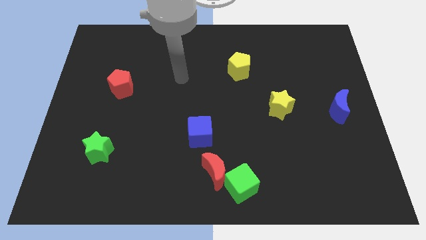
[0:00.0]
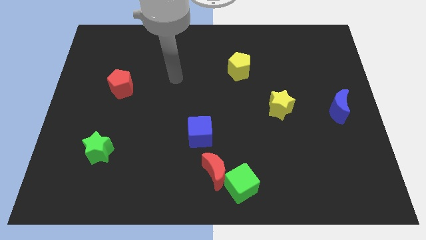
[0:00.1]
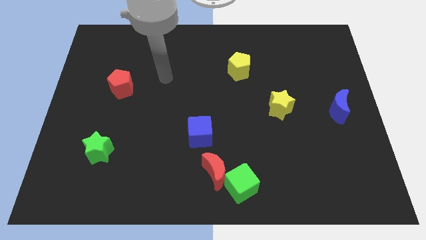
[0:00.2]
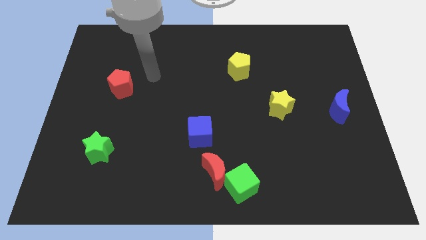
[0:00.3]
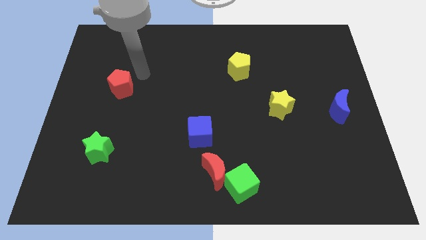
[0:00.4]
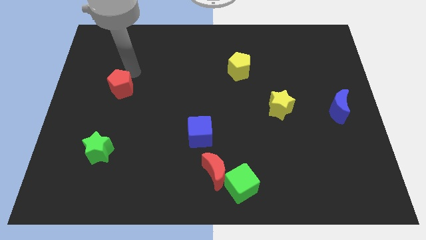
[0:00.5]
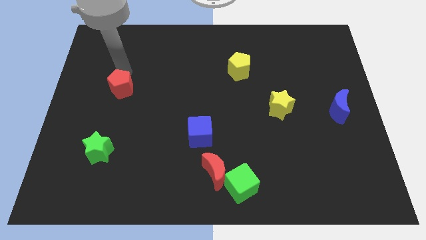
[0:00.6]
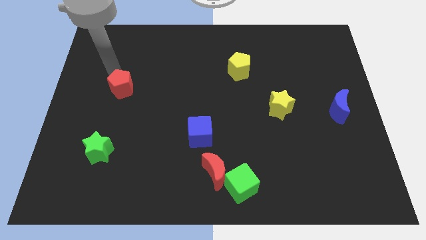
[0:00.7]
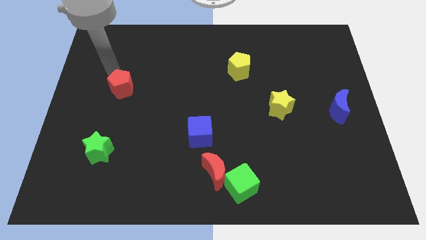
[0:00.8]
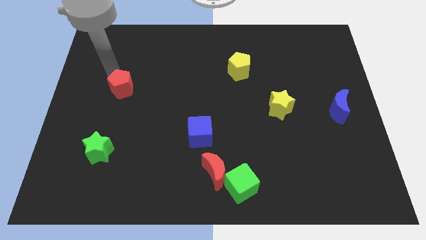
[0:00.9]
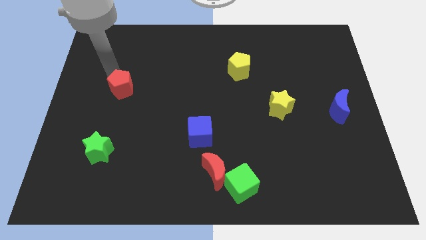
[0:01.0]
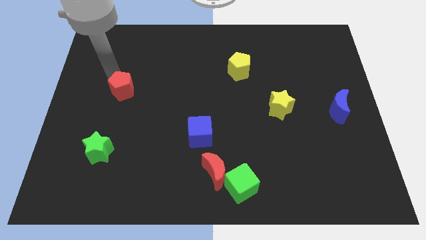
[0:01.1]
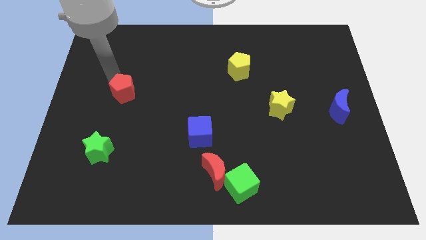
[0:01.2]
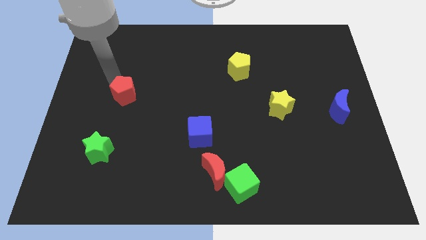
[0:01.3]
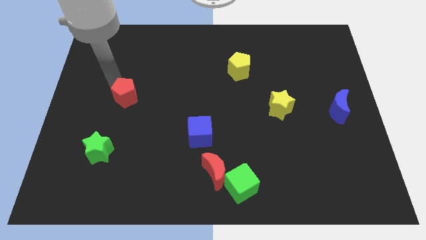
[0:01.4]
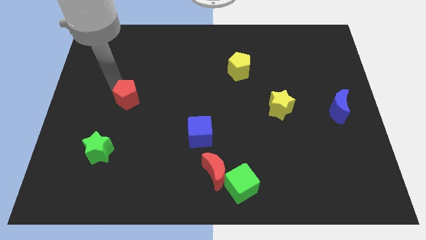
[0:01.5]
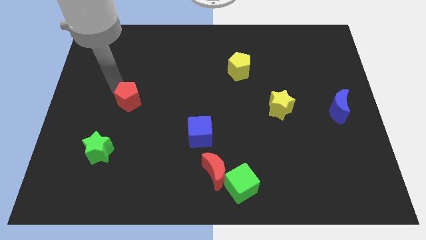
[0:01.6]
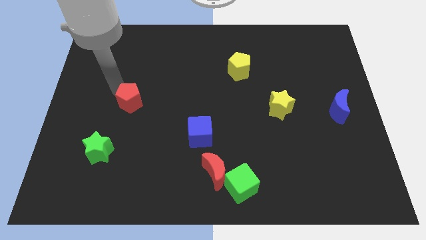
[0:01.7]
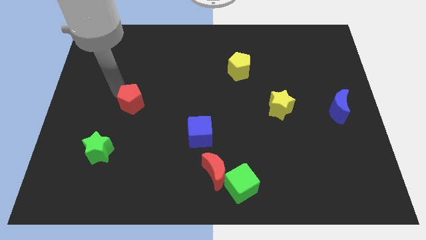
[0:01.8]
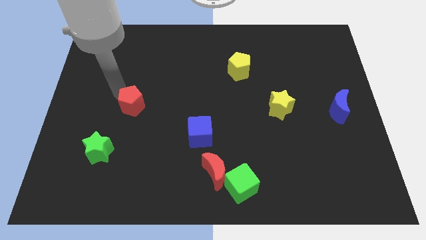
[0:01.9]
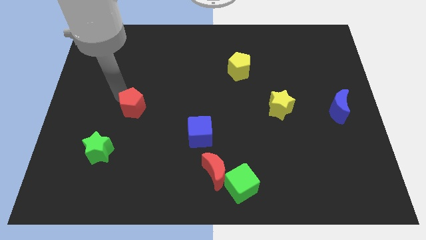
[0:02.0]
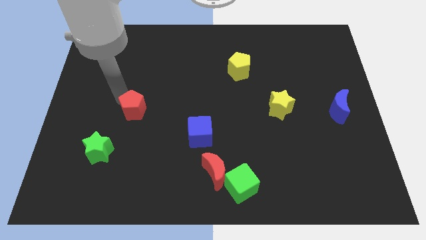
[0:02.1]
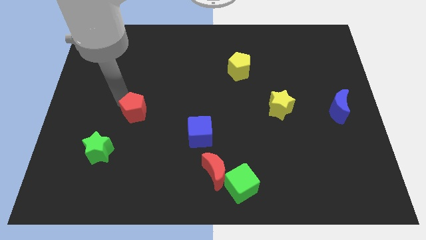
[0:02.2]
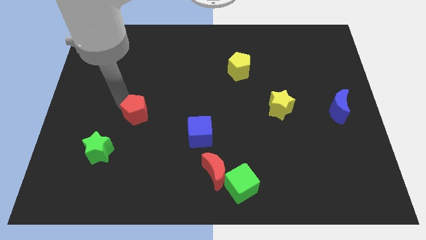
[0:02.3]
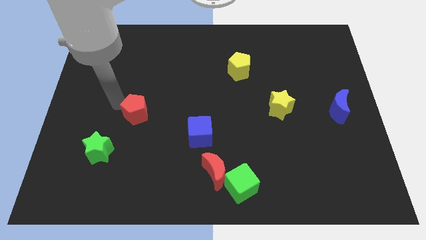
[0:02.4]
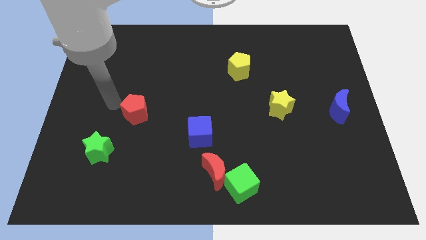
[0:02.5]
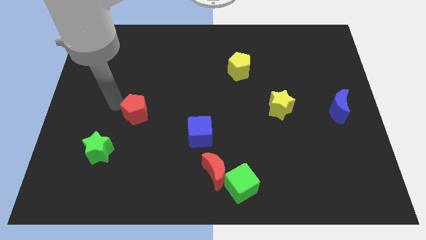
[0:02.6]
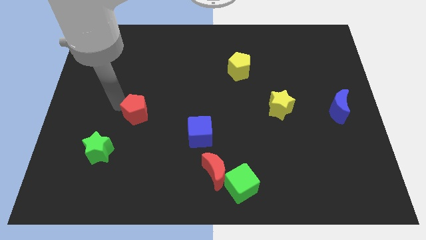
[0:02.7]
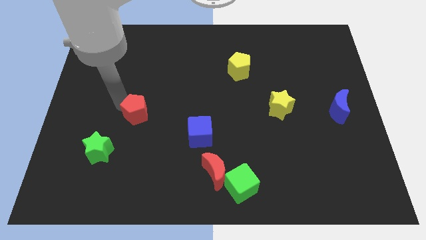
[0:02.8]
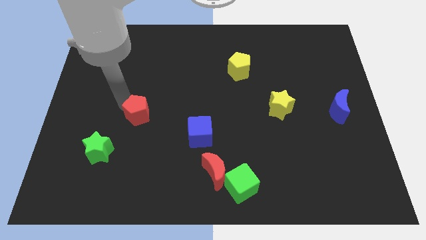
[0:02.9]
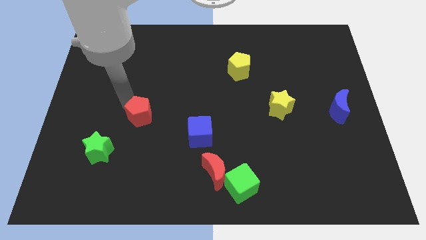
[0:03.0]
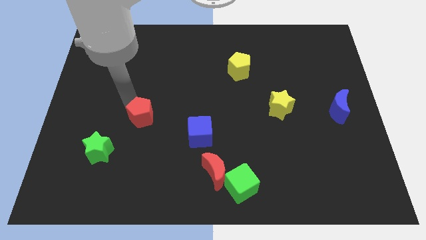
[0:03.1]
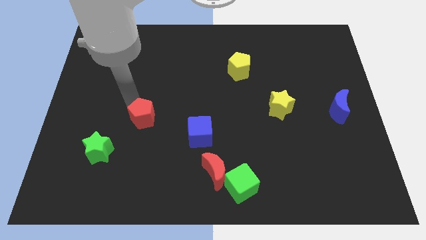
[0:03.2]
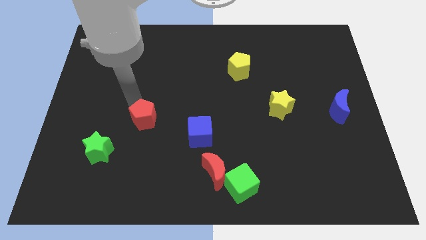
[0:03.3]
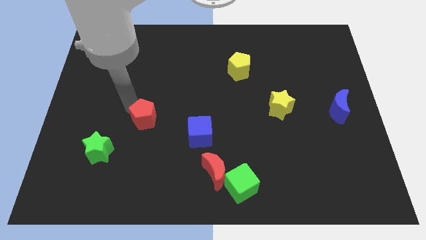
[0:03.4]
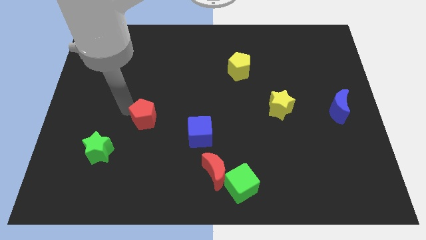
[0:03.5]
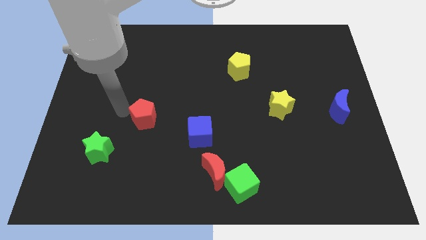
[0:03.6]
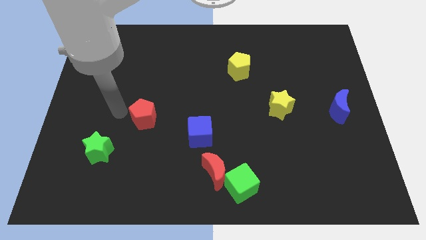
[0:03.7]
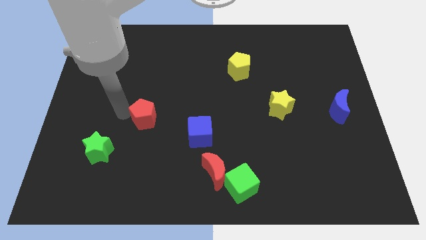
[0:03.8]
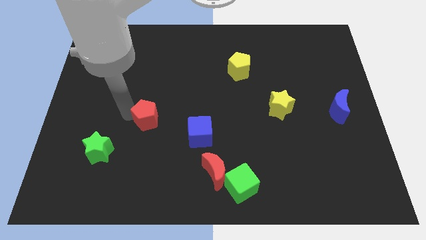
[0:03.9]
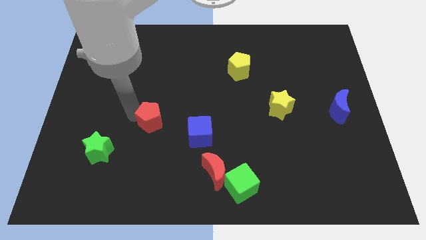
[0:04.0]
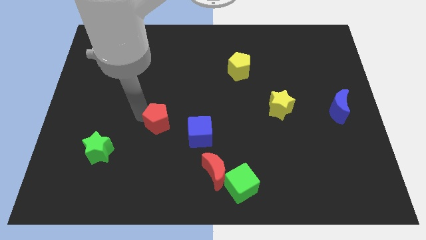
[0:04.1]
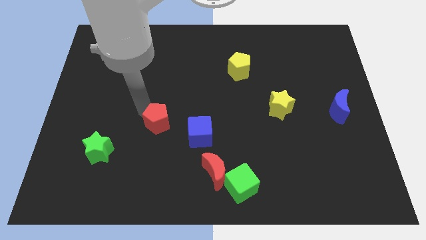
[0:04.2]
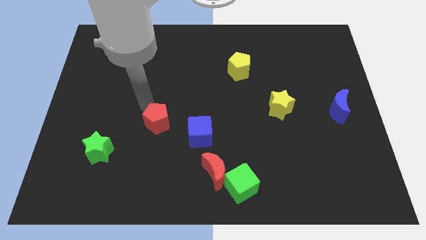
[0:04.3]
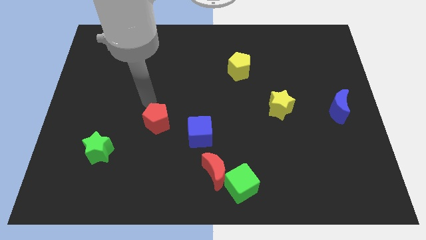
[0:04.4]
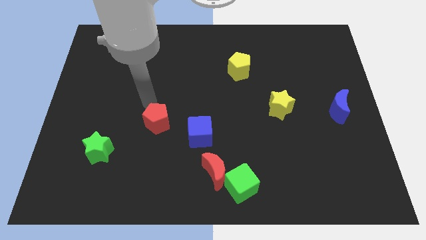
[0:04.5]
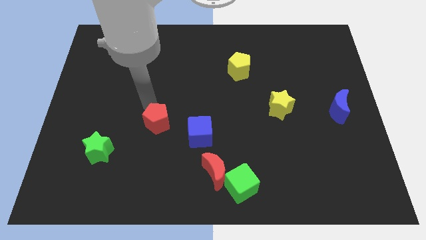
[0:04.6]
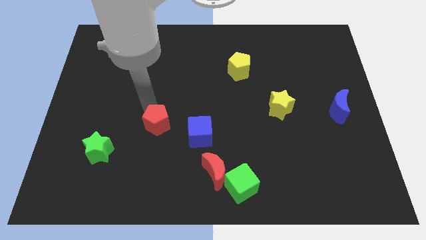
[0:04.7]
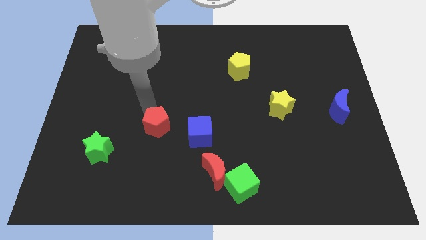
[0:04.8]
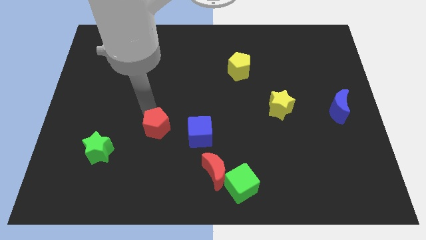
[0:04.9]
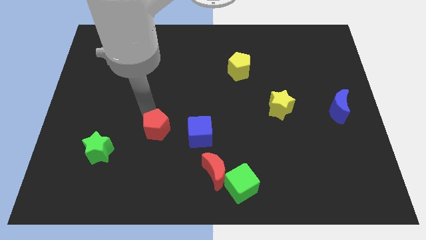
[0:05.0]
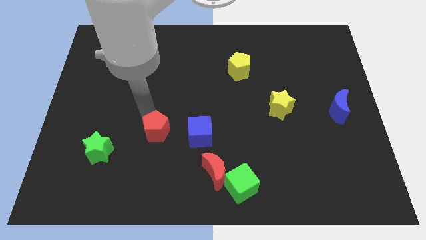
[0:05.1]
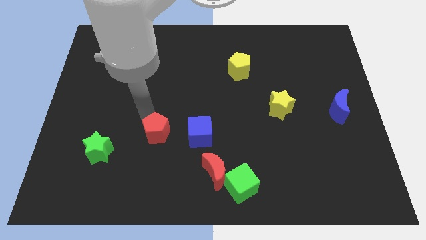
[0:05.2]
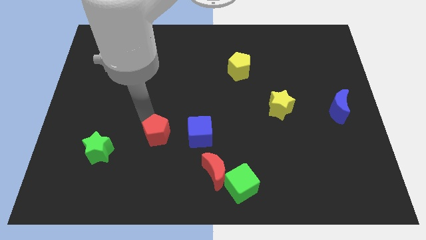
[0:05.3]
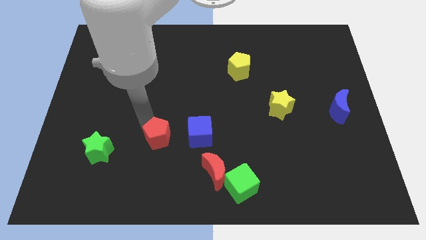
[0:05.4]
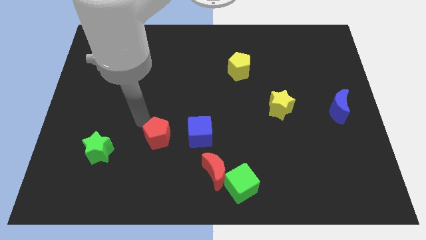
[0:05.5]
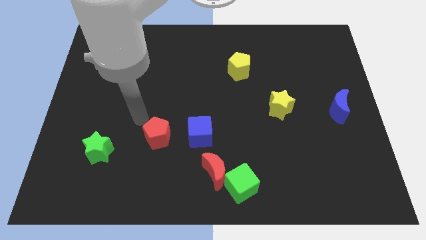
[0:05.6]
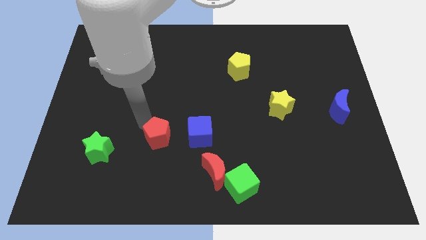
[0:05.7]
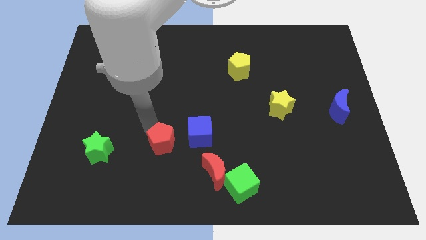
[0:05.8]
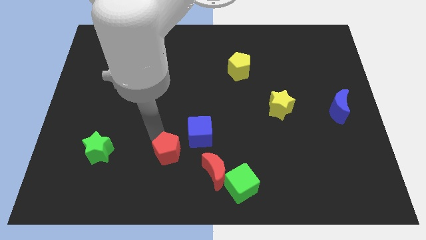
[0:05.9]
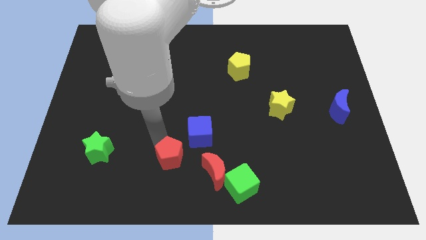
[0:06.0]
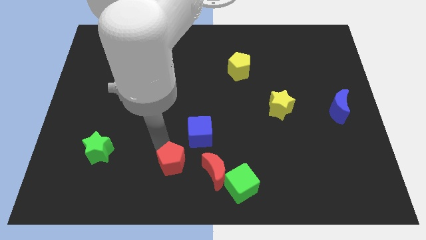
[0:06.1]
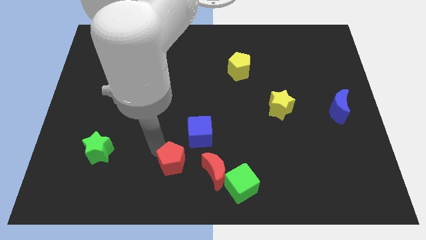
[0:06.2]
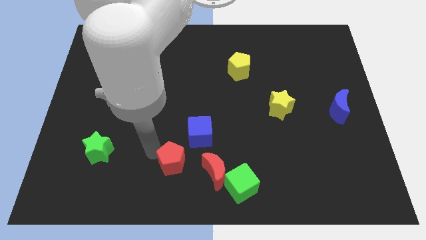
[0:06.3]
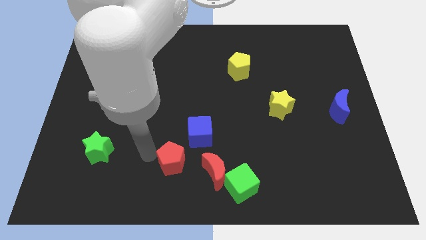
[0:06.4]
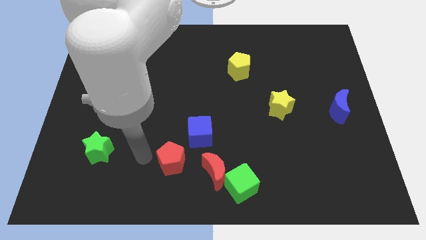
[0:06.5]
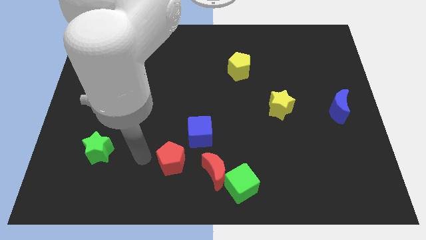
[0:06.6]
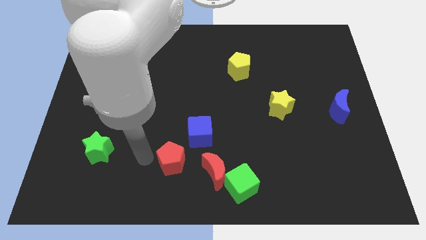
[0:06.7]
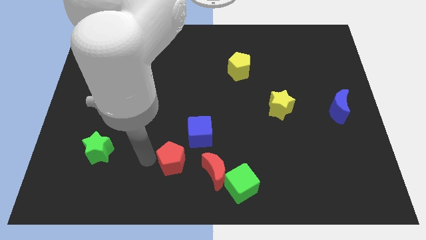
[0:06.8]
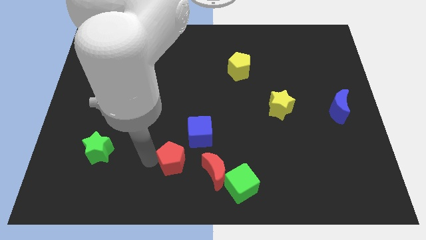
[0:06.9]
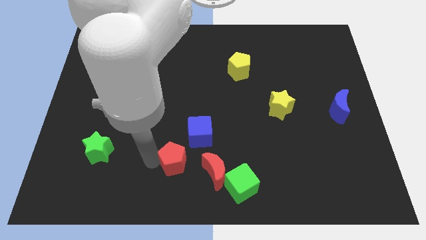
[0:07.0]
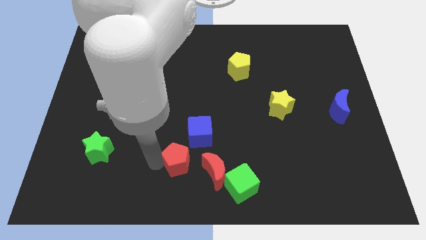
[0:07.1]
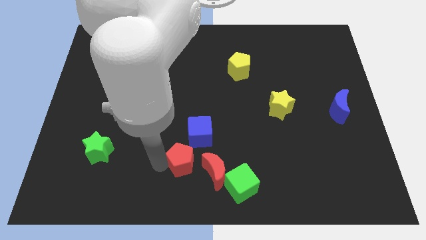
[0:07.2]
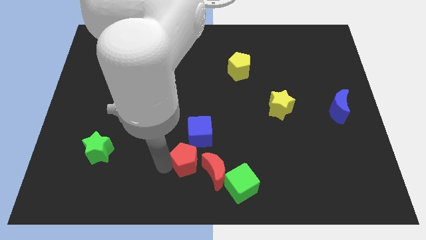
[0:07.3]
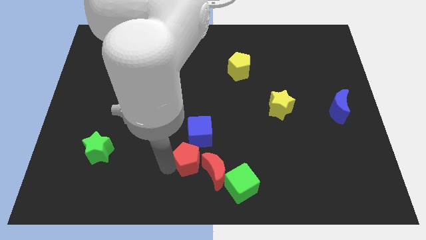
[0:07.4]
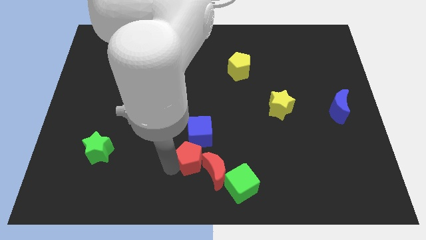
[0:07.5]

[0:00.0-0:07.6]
move the red pentagon next to the red moon
